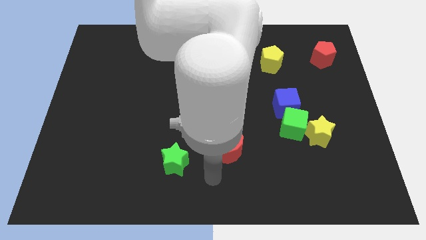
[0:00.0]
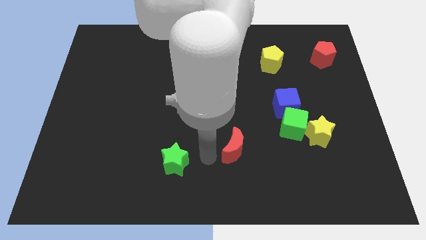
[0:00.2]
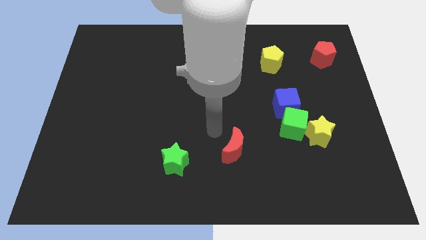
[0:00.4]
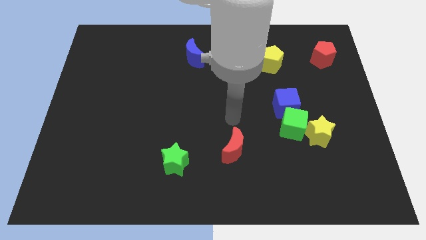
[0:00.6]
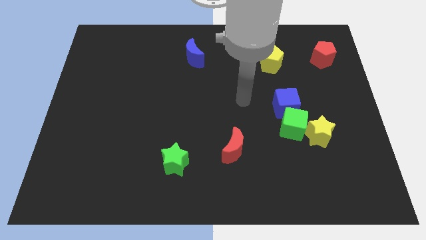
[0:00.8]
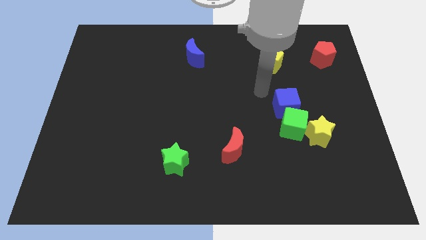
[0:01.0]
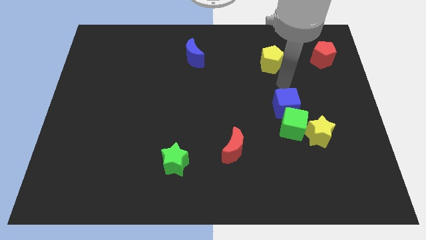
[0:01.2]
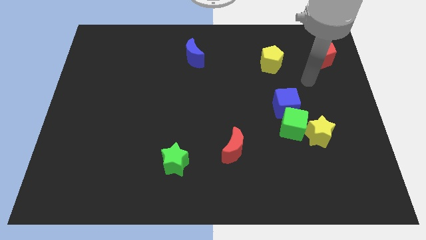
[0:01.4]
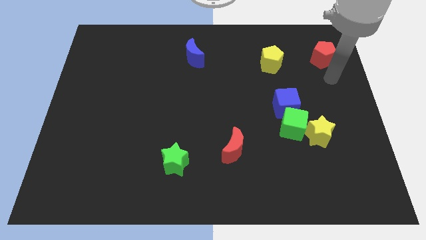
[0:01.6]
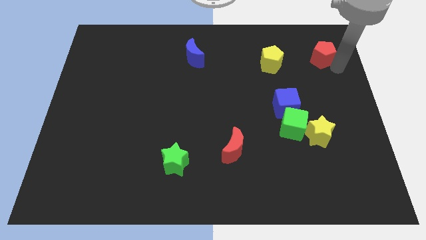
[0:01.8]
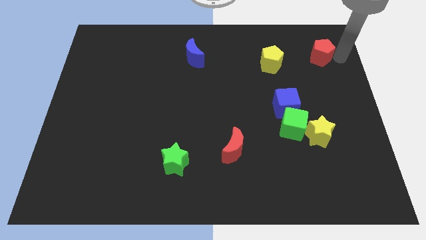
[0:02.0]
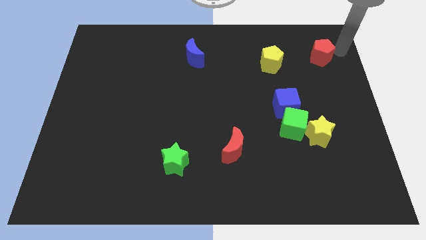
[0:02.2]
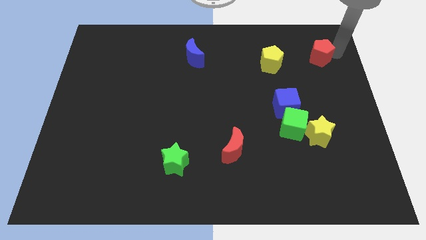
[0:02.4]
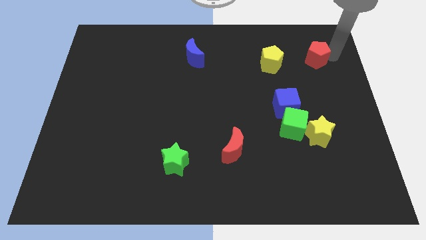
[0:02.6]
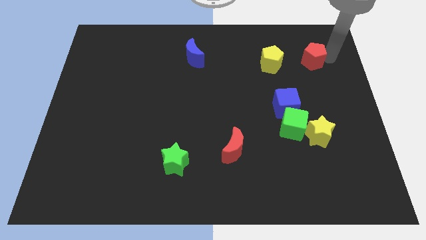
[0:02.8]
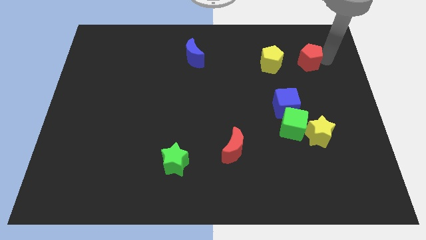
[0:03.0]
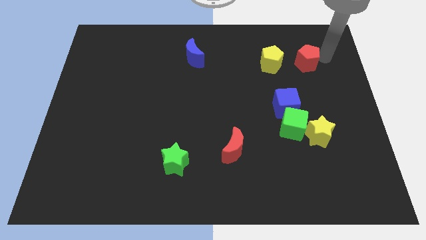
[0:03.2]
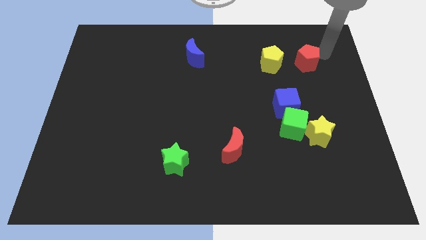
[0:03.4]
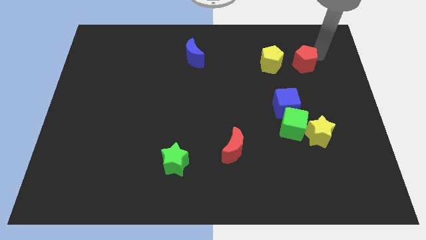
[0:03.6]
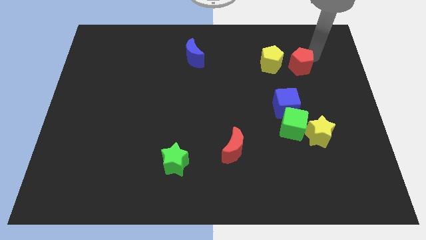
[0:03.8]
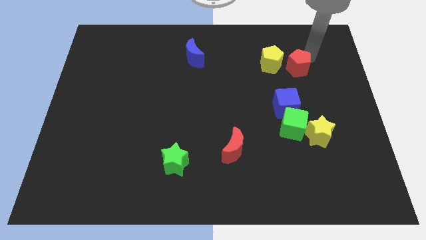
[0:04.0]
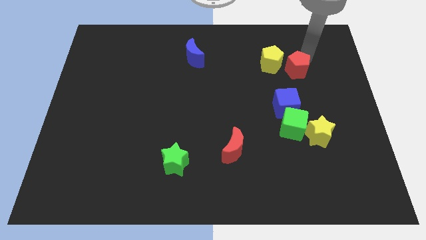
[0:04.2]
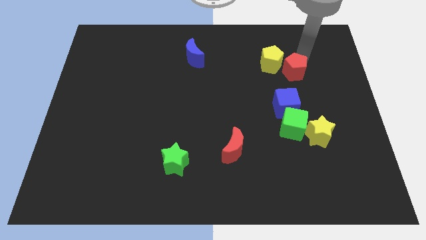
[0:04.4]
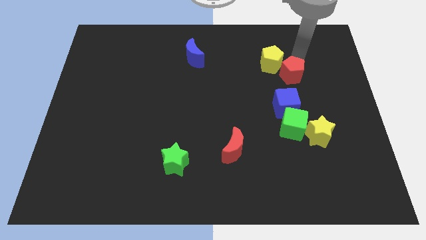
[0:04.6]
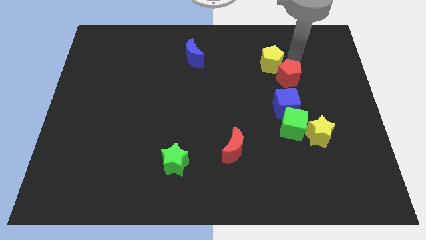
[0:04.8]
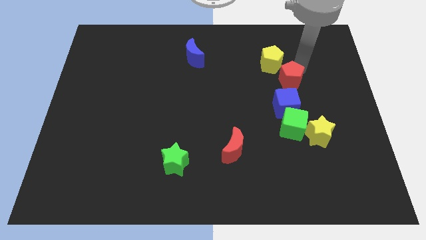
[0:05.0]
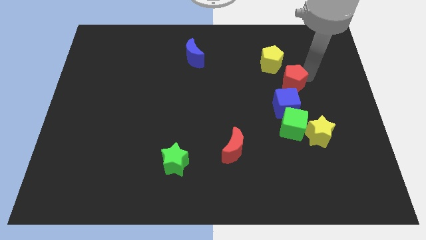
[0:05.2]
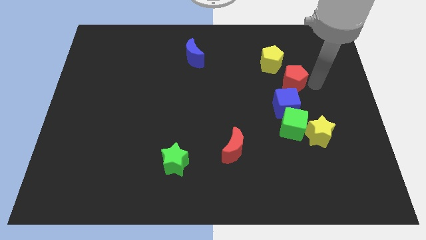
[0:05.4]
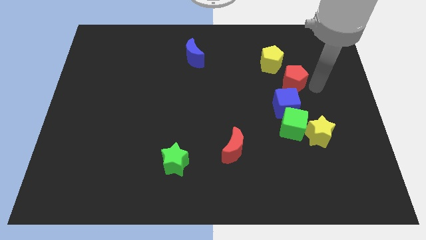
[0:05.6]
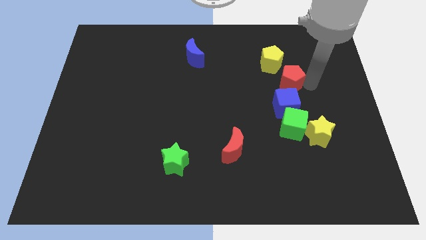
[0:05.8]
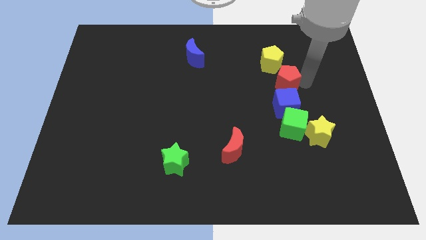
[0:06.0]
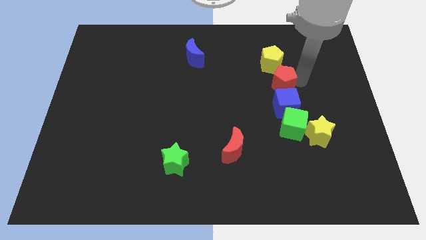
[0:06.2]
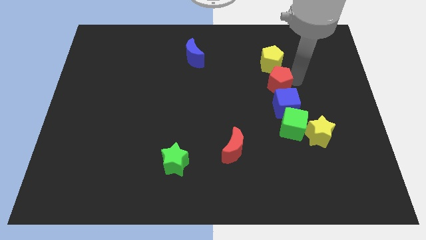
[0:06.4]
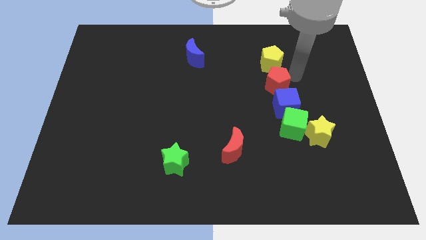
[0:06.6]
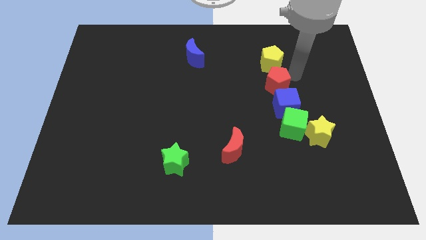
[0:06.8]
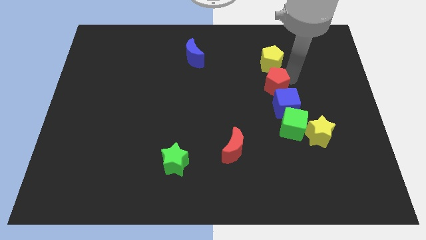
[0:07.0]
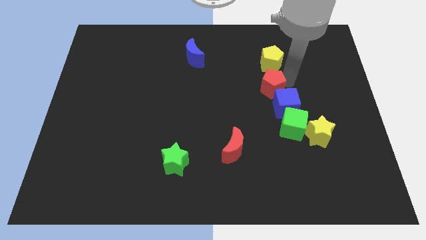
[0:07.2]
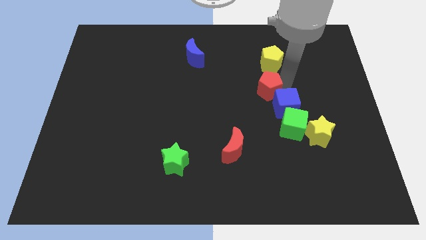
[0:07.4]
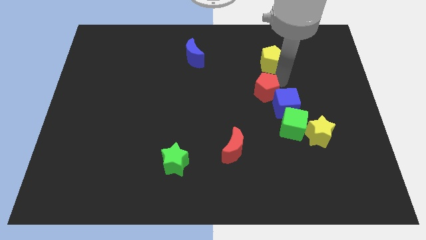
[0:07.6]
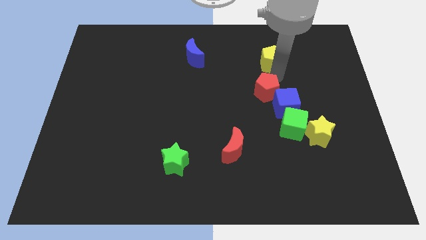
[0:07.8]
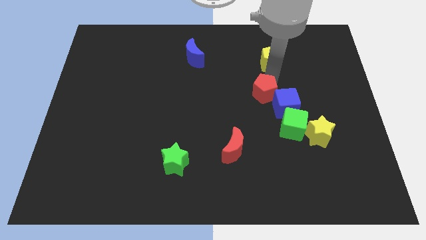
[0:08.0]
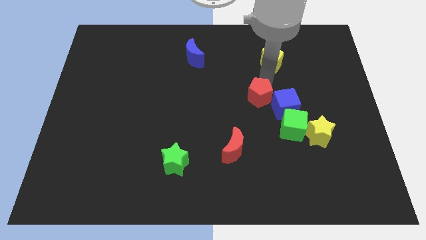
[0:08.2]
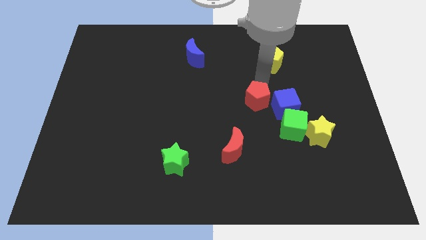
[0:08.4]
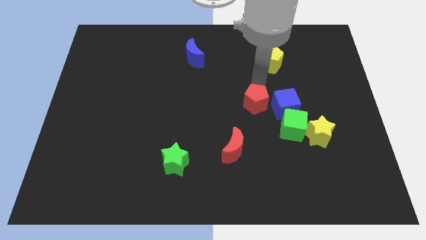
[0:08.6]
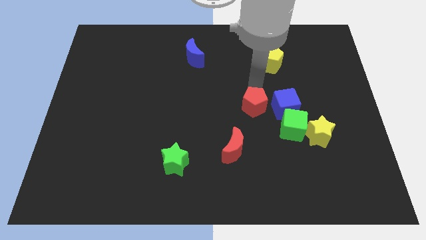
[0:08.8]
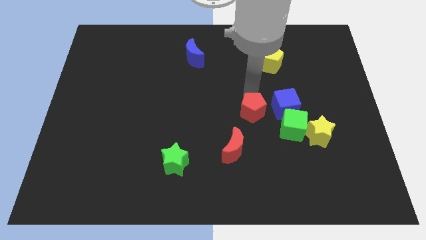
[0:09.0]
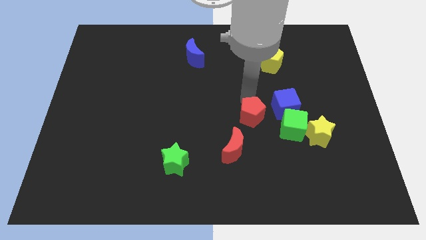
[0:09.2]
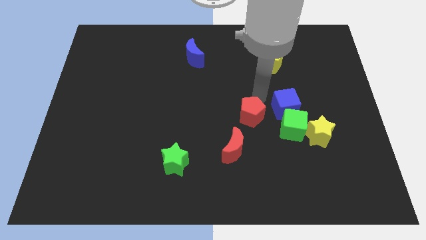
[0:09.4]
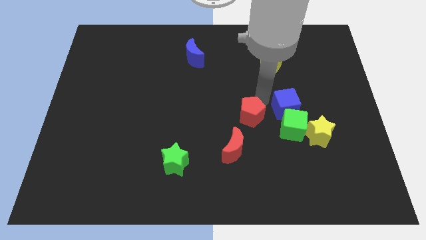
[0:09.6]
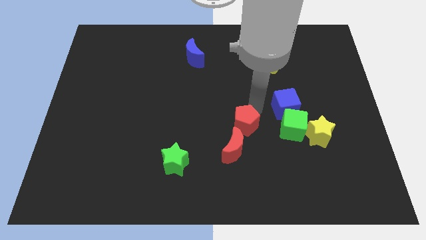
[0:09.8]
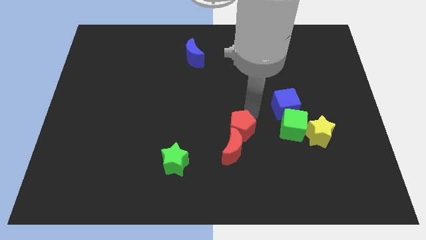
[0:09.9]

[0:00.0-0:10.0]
push the red pentagon next to the red moon
